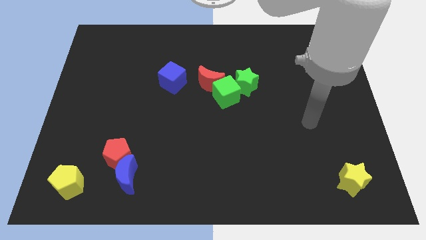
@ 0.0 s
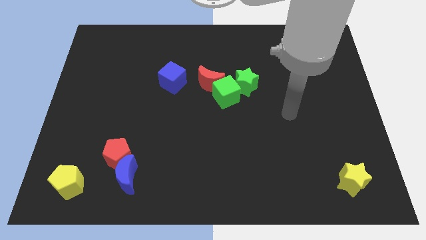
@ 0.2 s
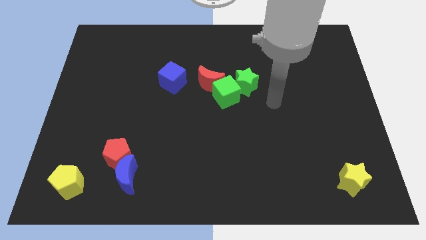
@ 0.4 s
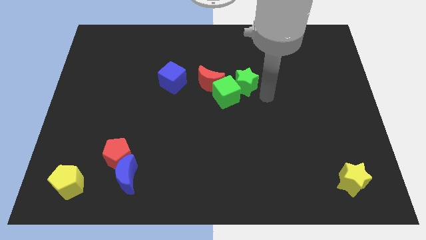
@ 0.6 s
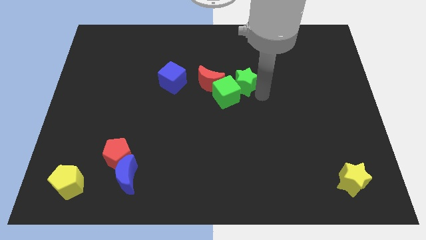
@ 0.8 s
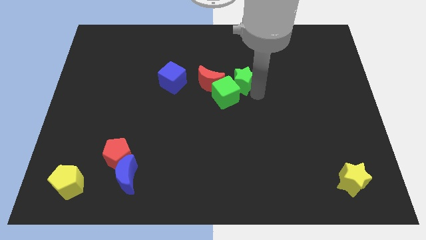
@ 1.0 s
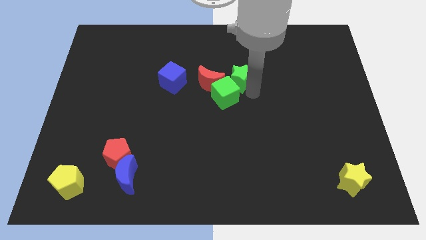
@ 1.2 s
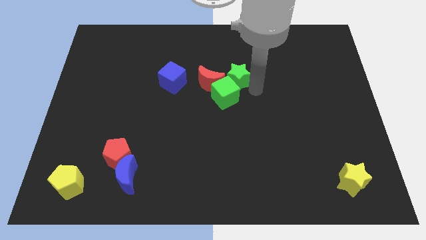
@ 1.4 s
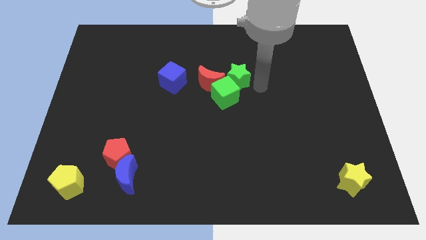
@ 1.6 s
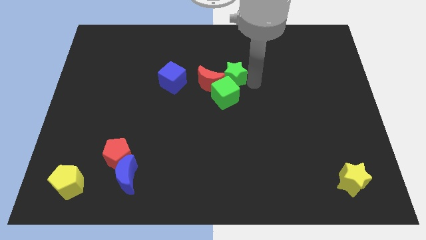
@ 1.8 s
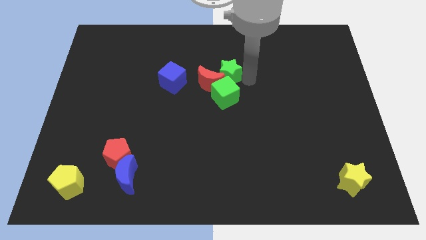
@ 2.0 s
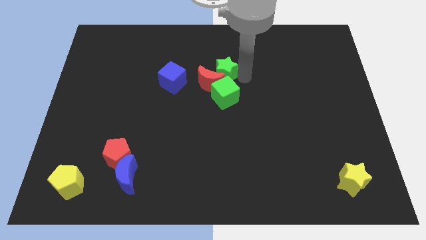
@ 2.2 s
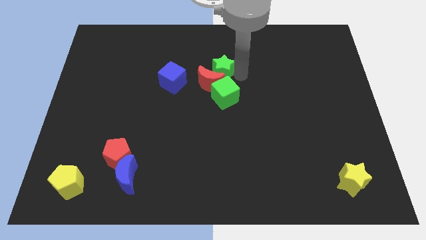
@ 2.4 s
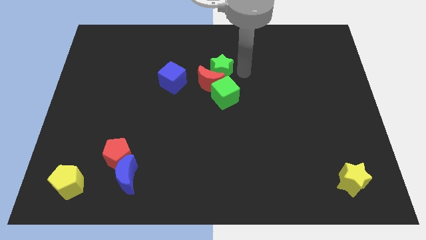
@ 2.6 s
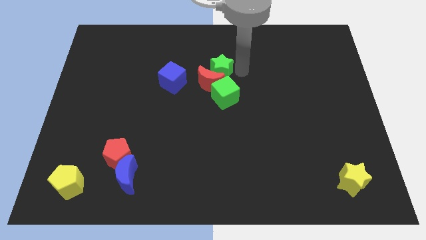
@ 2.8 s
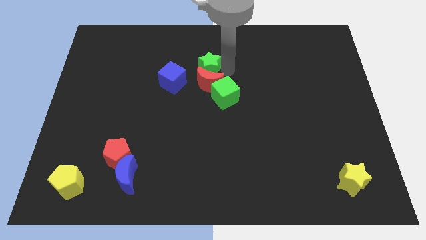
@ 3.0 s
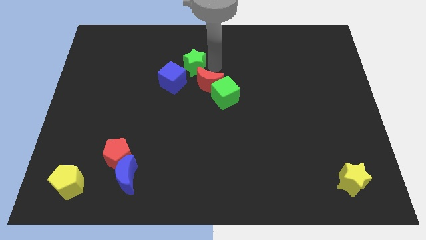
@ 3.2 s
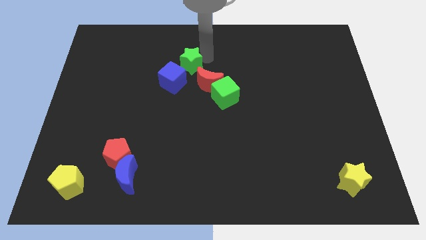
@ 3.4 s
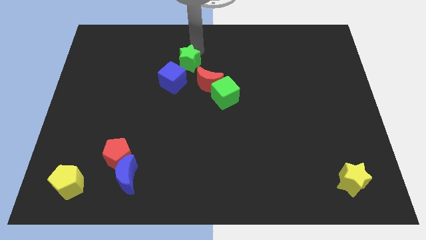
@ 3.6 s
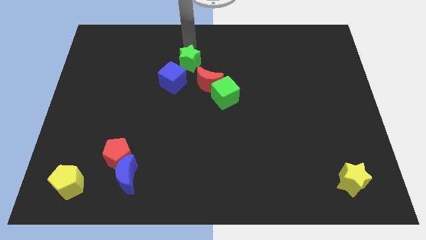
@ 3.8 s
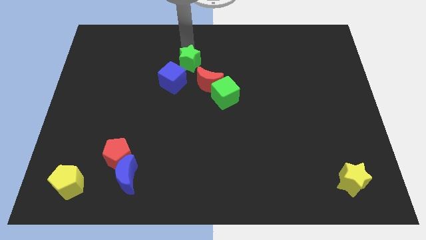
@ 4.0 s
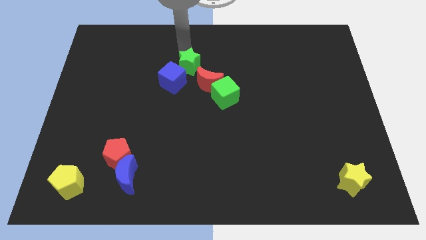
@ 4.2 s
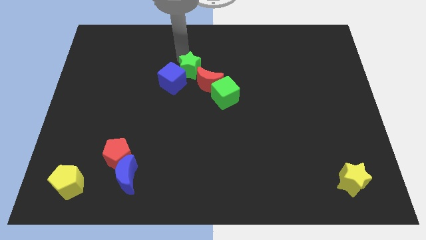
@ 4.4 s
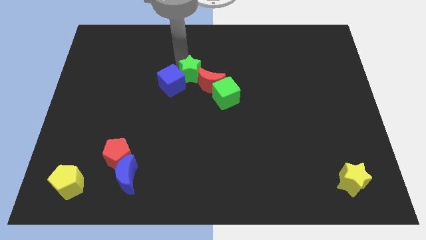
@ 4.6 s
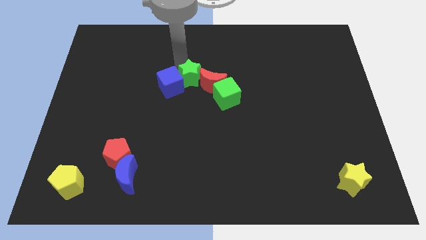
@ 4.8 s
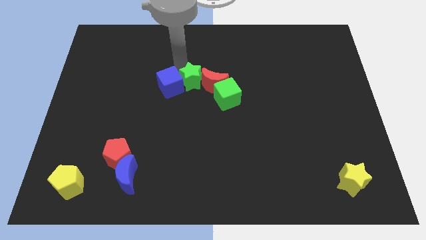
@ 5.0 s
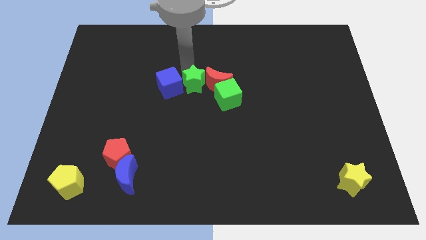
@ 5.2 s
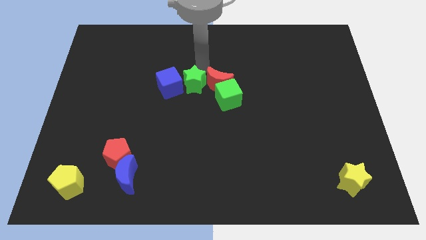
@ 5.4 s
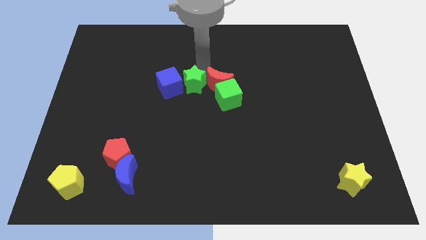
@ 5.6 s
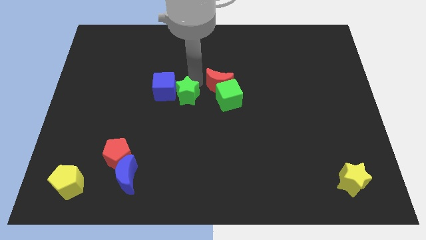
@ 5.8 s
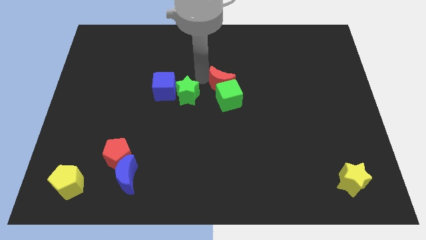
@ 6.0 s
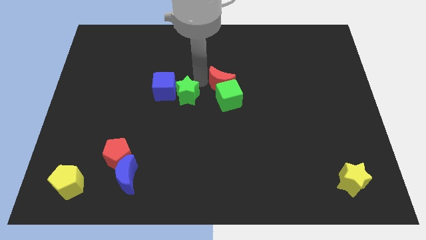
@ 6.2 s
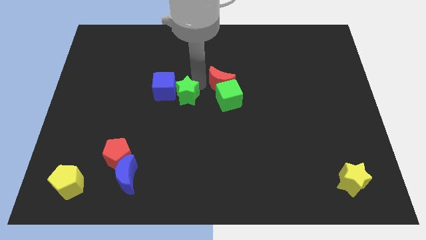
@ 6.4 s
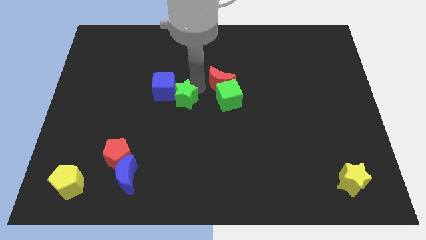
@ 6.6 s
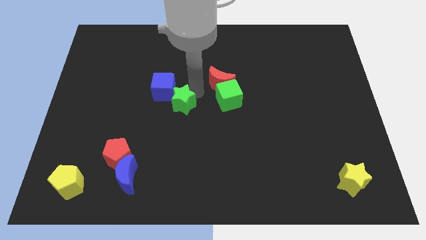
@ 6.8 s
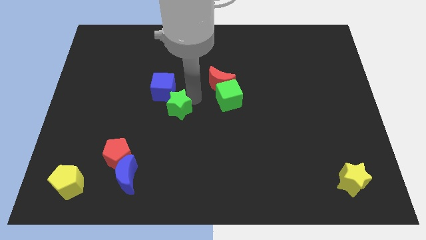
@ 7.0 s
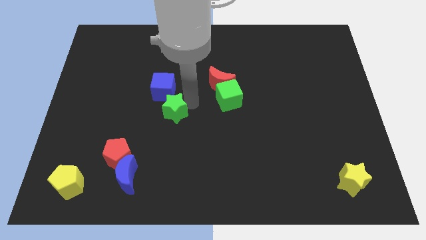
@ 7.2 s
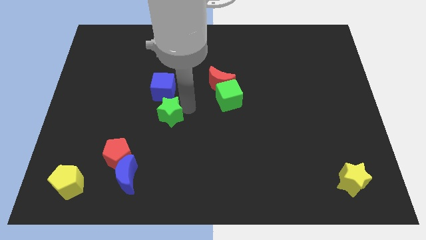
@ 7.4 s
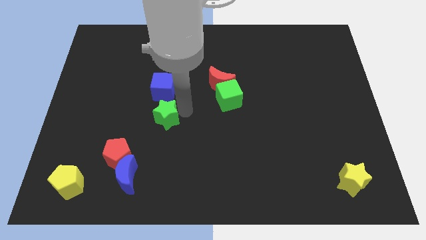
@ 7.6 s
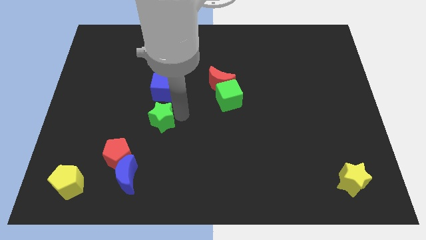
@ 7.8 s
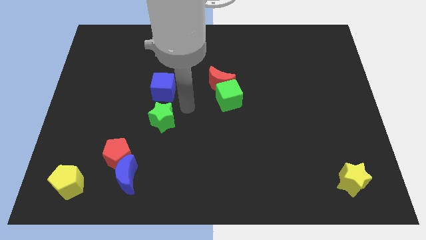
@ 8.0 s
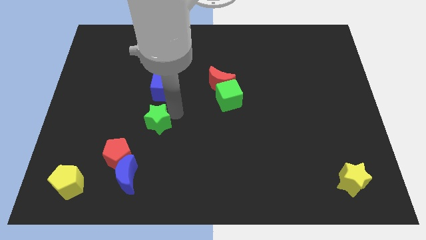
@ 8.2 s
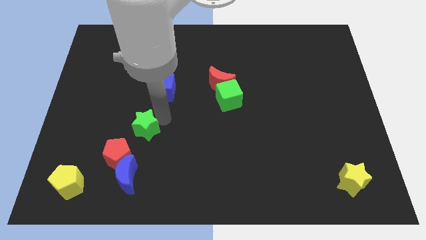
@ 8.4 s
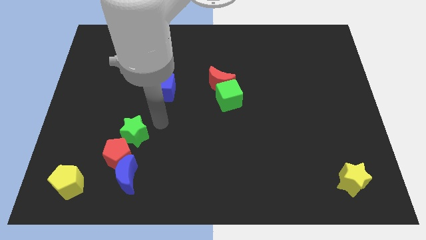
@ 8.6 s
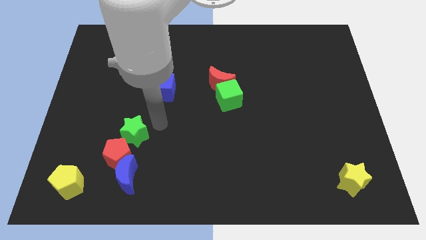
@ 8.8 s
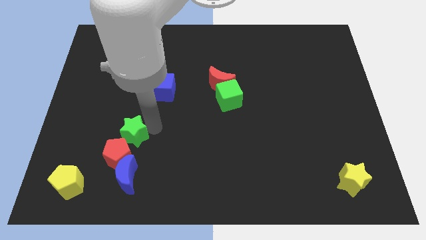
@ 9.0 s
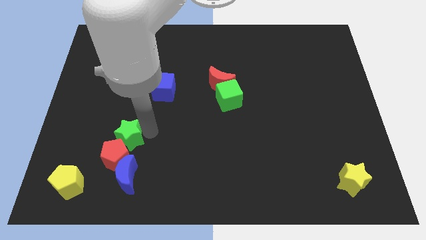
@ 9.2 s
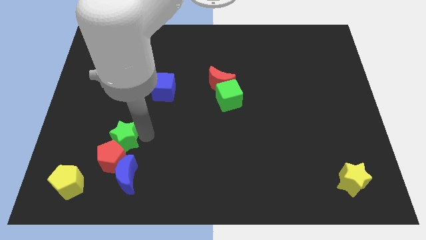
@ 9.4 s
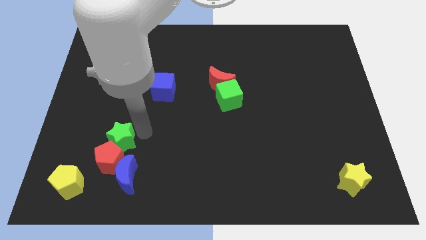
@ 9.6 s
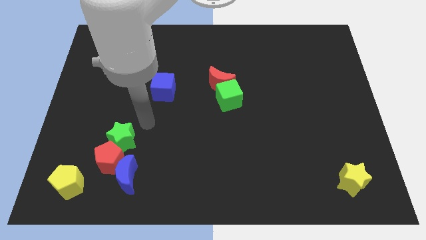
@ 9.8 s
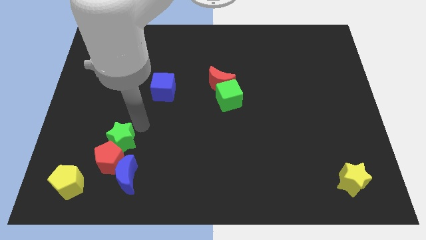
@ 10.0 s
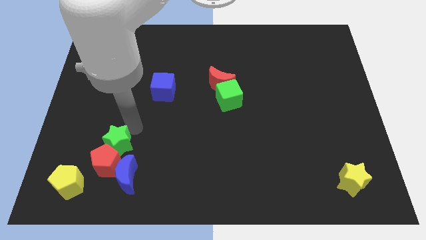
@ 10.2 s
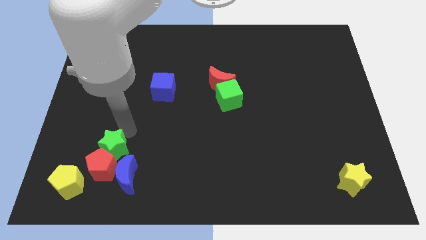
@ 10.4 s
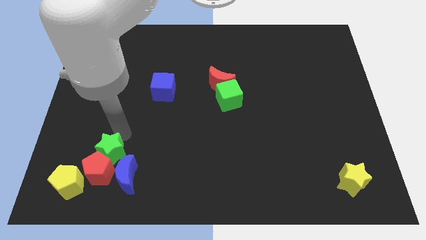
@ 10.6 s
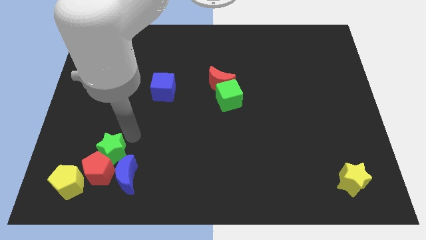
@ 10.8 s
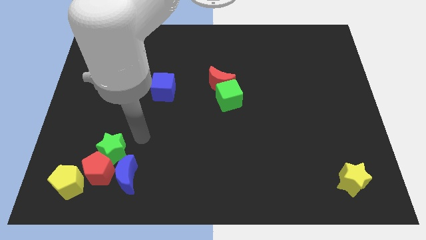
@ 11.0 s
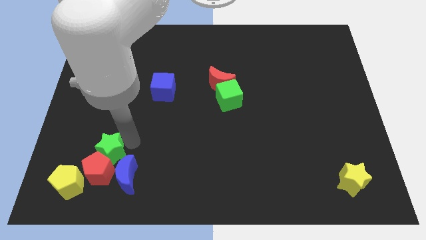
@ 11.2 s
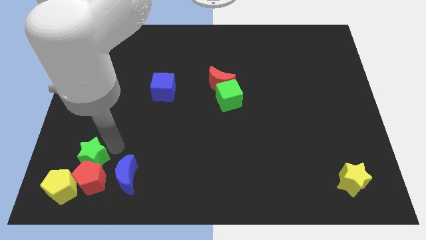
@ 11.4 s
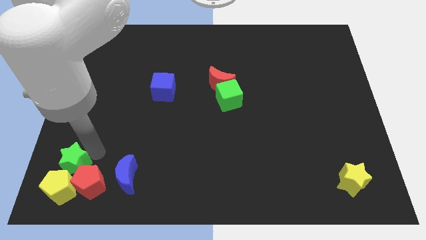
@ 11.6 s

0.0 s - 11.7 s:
put the green star next to the yellow pentagon

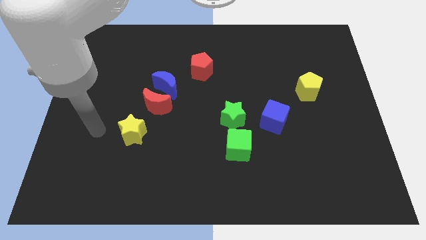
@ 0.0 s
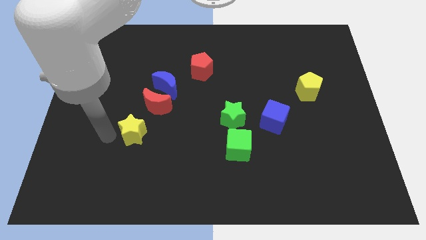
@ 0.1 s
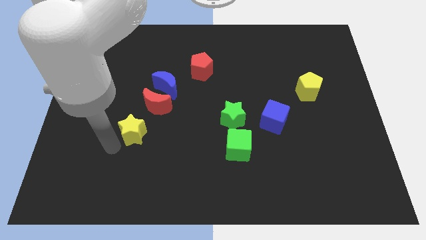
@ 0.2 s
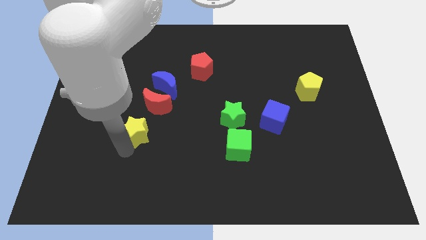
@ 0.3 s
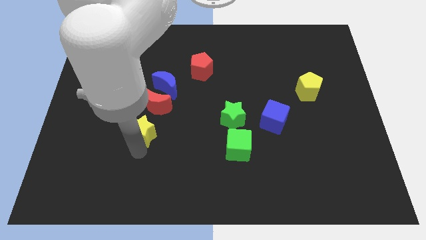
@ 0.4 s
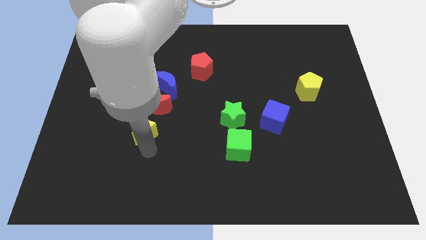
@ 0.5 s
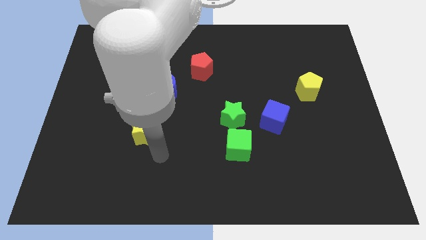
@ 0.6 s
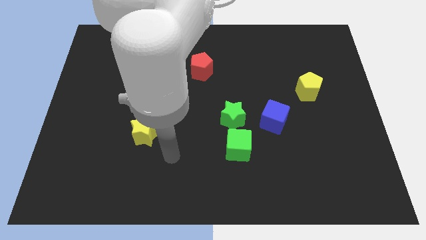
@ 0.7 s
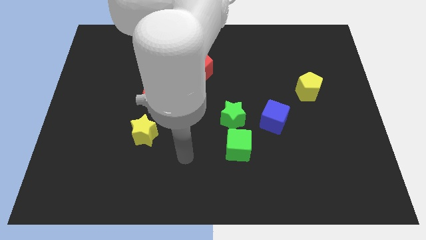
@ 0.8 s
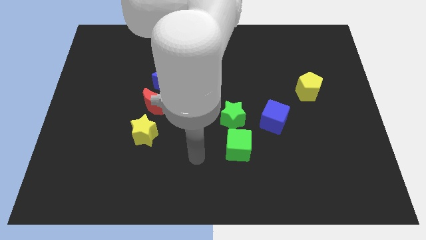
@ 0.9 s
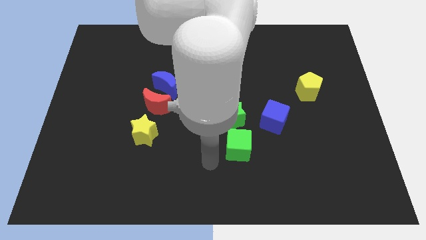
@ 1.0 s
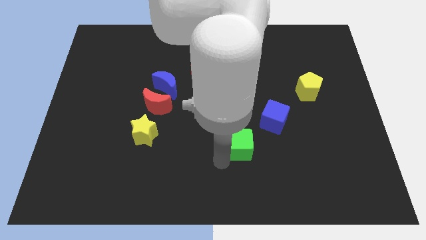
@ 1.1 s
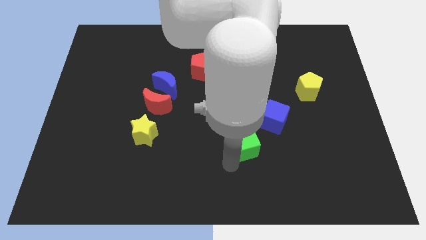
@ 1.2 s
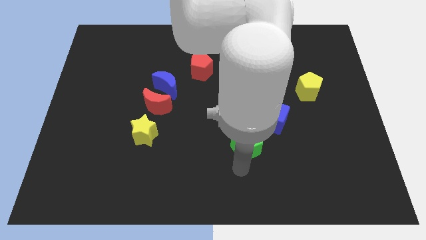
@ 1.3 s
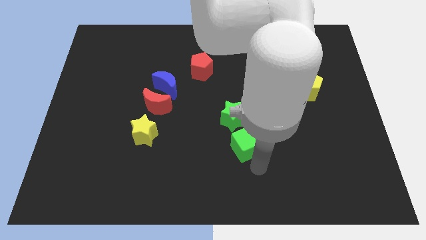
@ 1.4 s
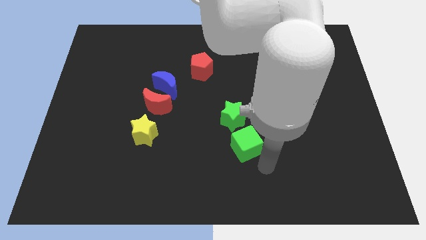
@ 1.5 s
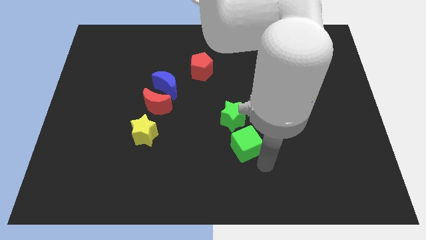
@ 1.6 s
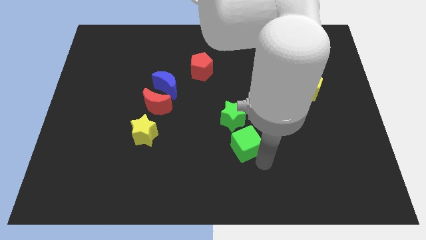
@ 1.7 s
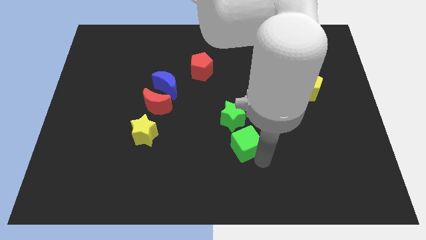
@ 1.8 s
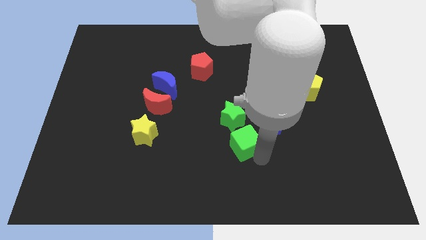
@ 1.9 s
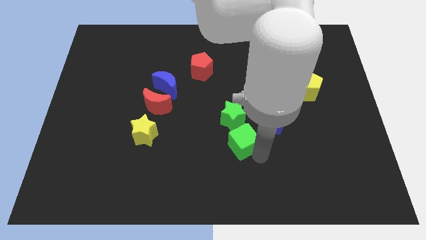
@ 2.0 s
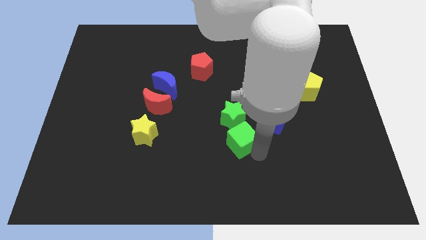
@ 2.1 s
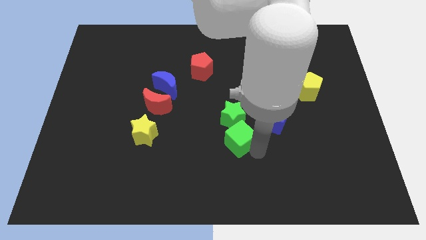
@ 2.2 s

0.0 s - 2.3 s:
put the green cube next to the green star

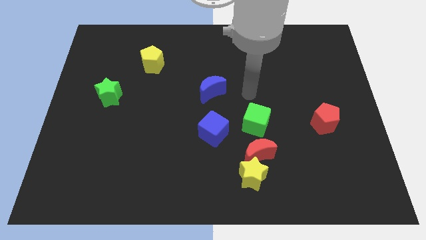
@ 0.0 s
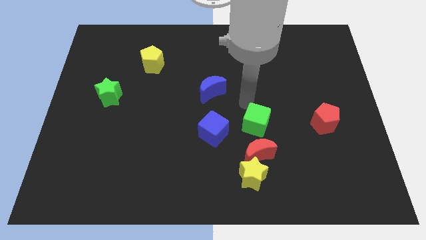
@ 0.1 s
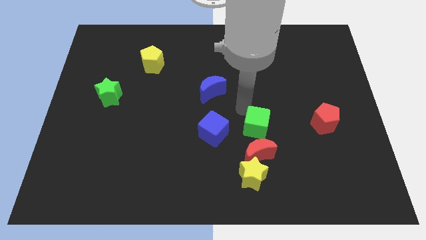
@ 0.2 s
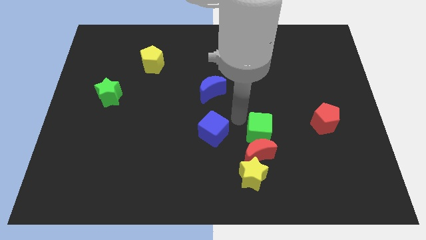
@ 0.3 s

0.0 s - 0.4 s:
slide the red moon close to the green cube
